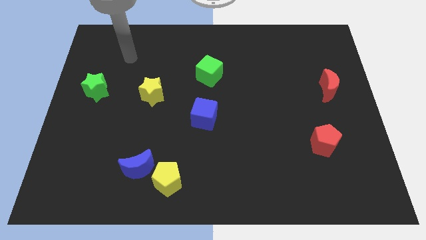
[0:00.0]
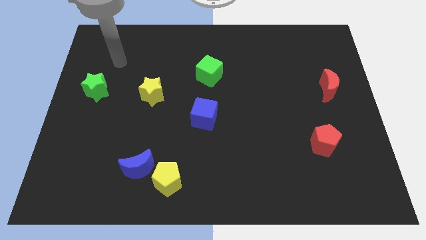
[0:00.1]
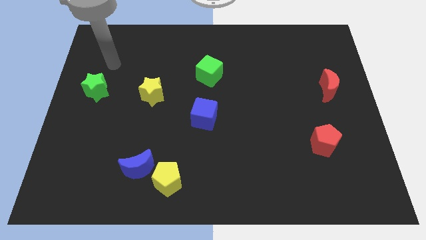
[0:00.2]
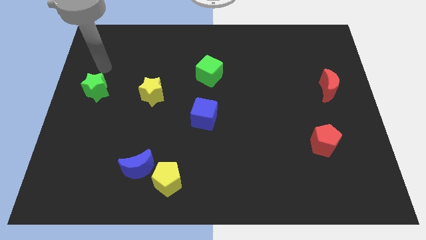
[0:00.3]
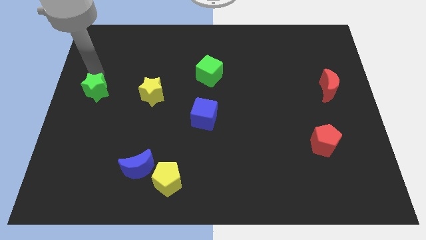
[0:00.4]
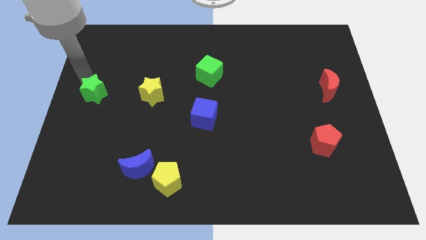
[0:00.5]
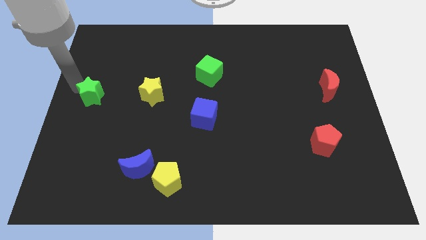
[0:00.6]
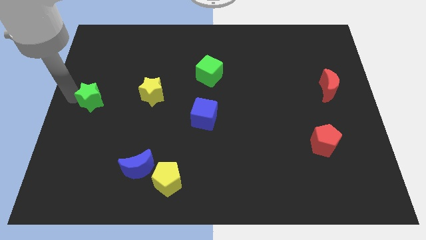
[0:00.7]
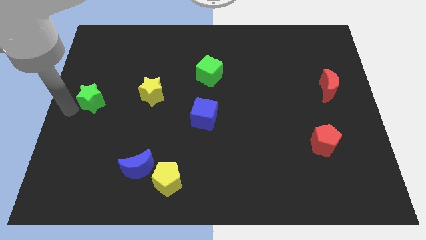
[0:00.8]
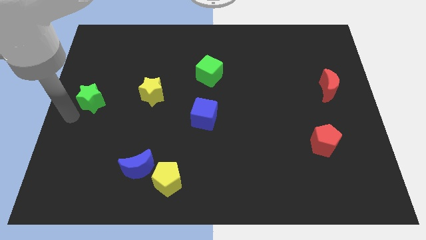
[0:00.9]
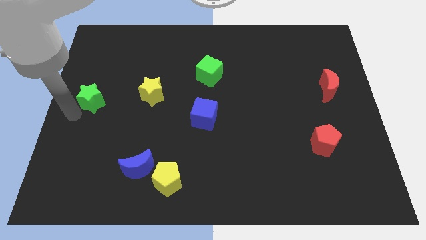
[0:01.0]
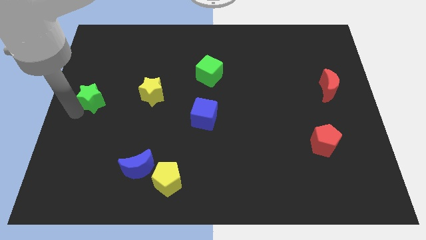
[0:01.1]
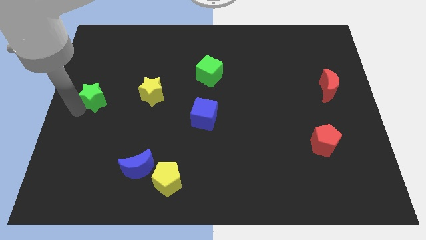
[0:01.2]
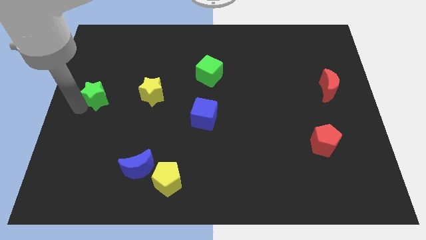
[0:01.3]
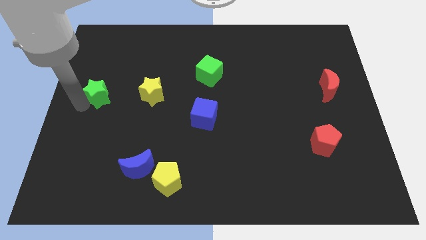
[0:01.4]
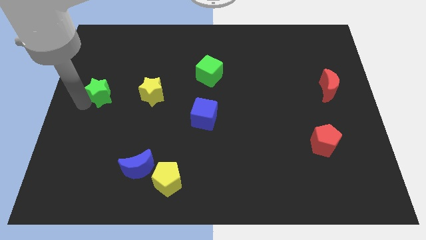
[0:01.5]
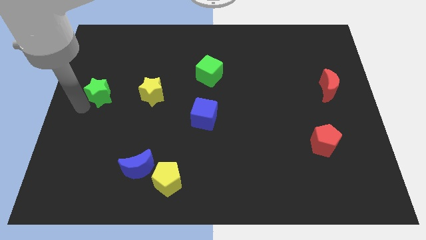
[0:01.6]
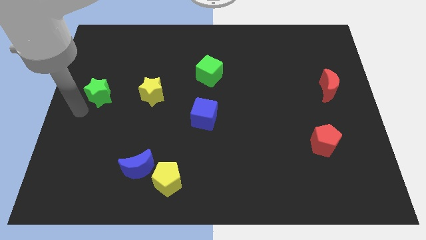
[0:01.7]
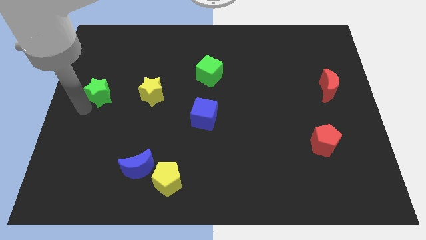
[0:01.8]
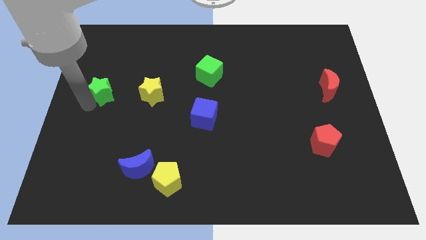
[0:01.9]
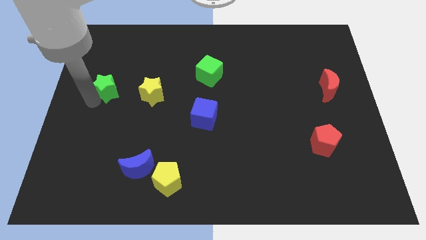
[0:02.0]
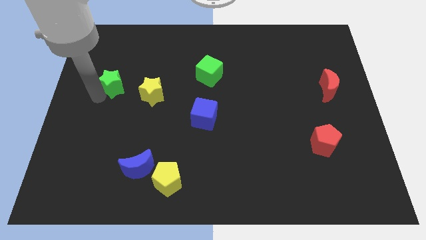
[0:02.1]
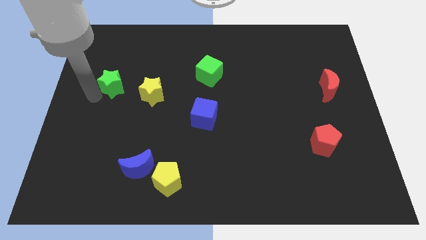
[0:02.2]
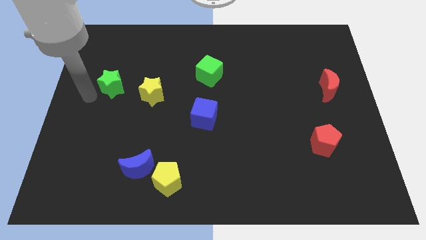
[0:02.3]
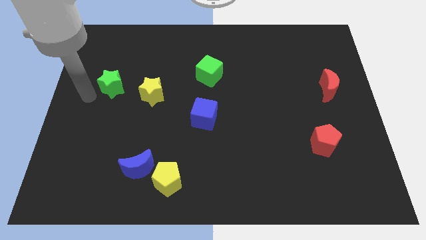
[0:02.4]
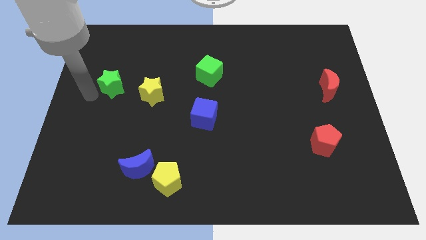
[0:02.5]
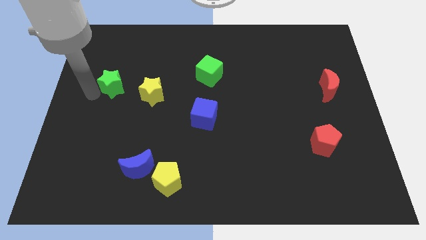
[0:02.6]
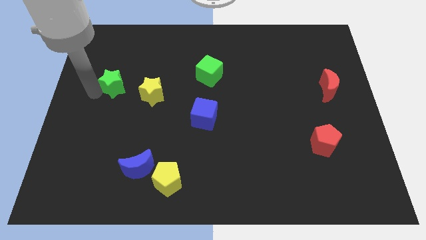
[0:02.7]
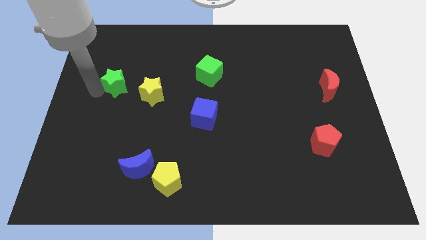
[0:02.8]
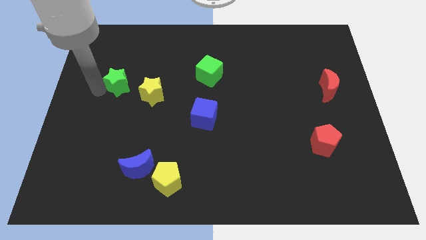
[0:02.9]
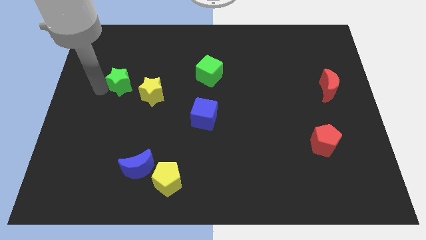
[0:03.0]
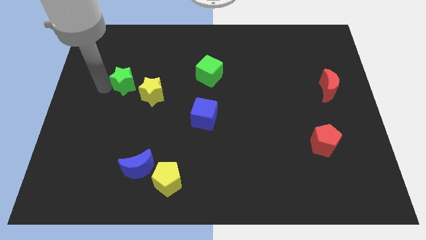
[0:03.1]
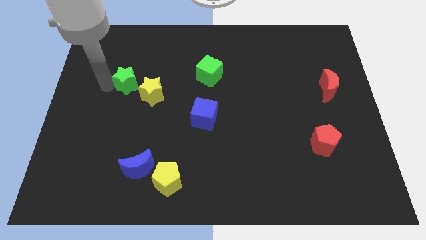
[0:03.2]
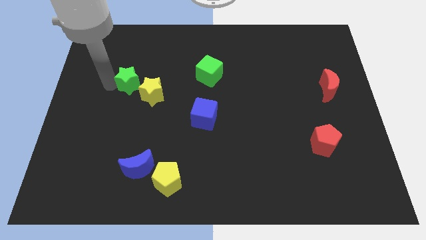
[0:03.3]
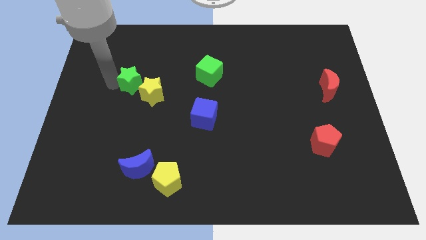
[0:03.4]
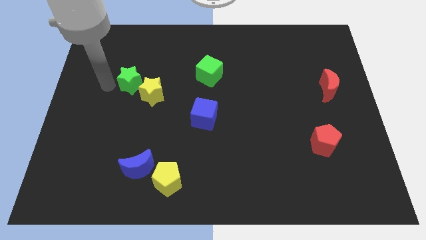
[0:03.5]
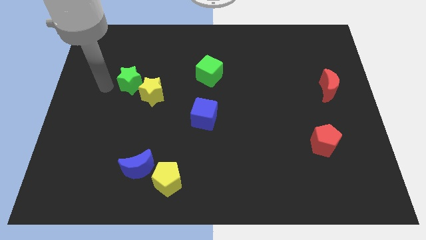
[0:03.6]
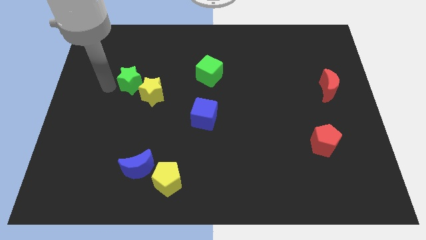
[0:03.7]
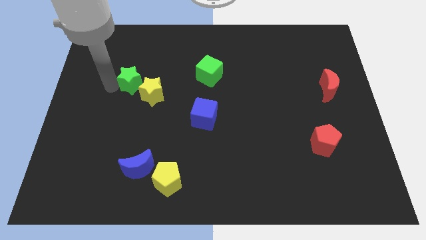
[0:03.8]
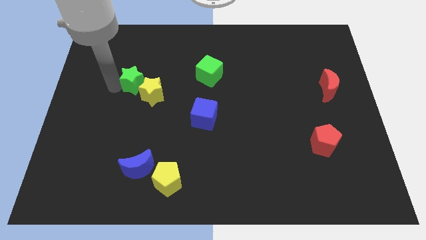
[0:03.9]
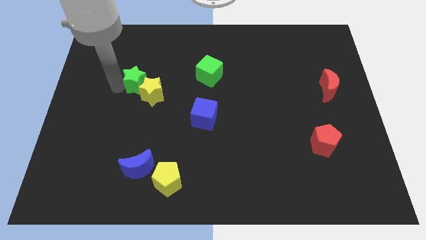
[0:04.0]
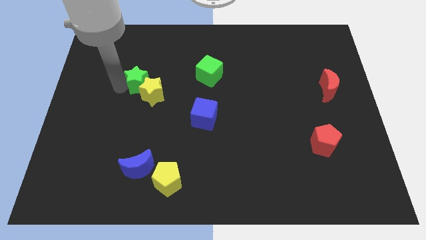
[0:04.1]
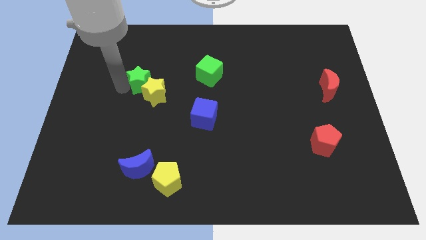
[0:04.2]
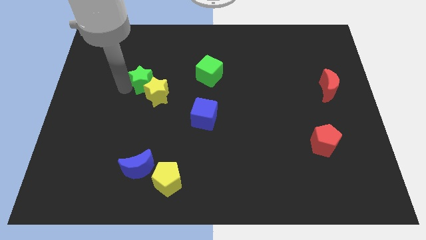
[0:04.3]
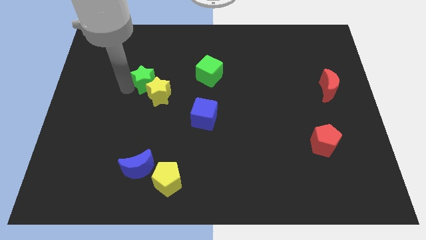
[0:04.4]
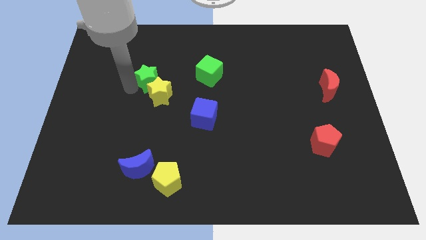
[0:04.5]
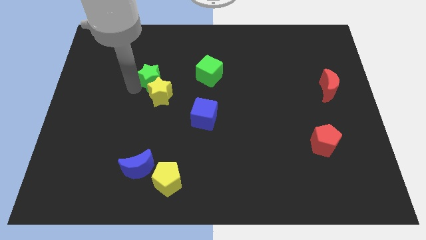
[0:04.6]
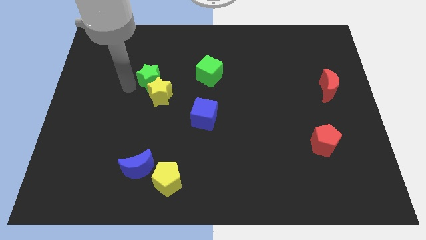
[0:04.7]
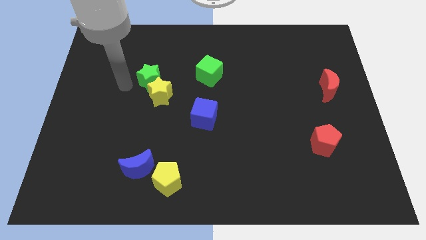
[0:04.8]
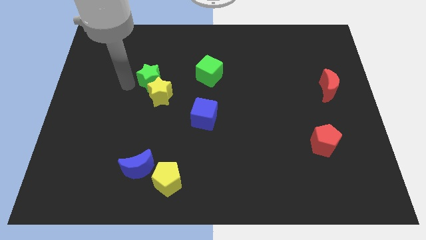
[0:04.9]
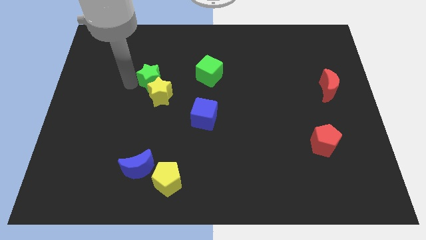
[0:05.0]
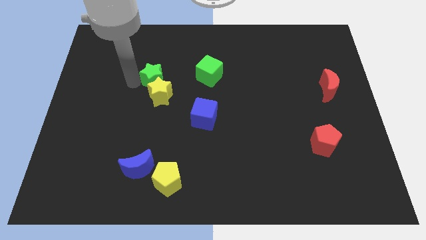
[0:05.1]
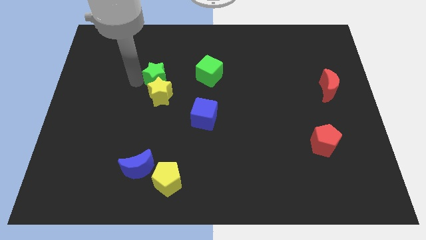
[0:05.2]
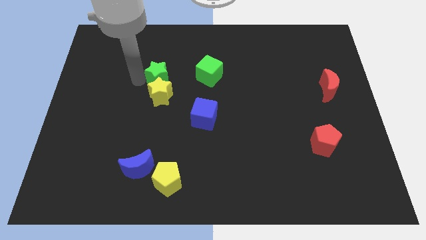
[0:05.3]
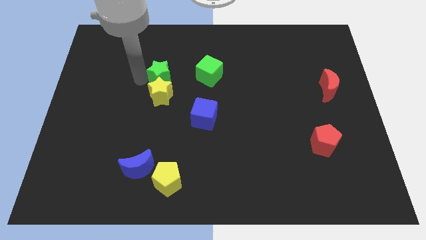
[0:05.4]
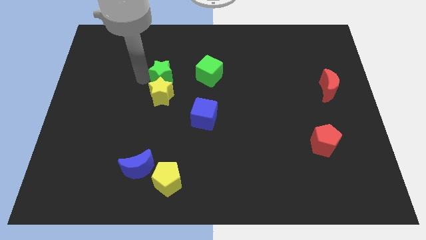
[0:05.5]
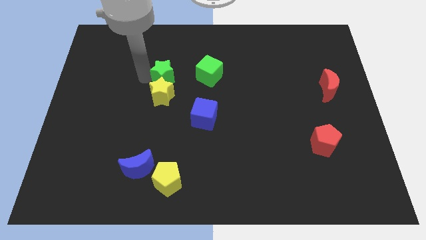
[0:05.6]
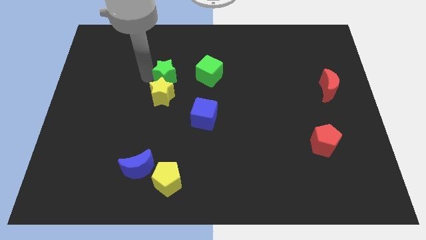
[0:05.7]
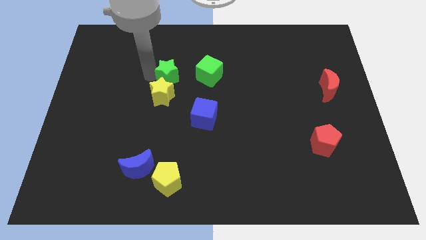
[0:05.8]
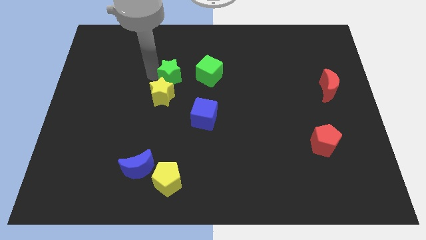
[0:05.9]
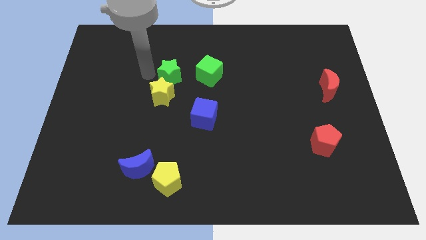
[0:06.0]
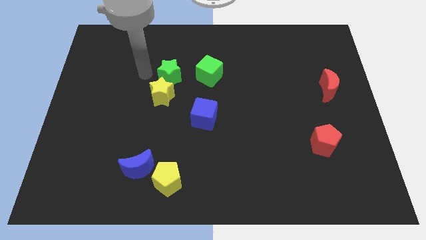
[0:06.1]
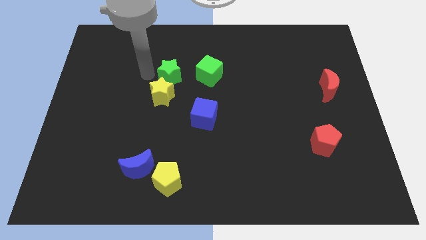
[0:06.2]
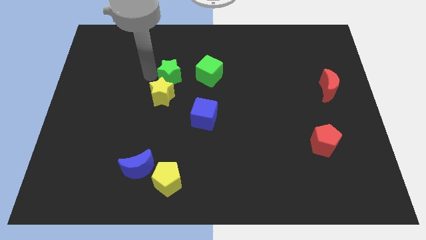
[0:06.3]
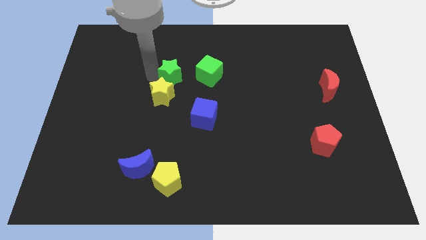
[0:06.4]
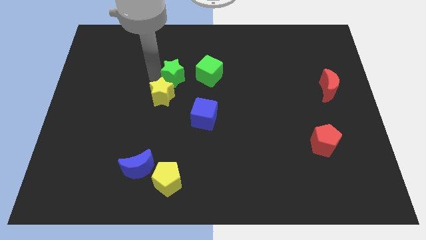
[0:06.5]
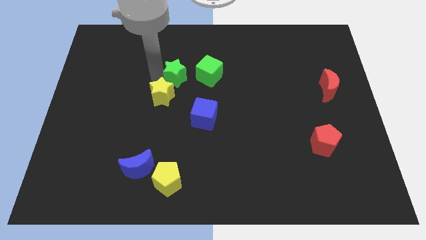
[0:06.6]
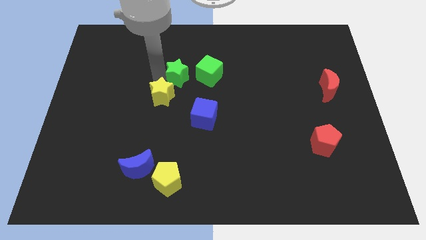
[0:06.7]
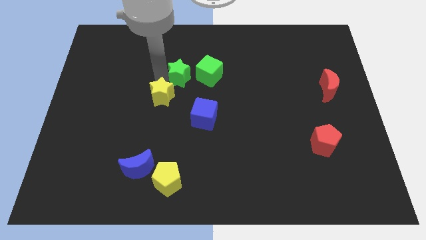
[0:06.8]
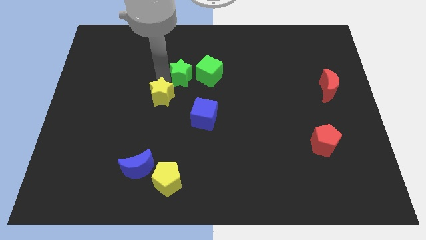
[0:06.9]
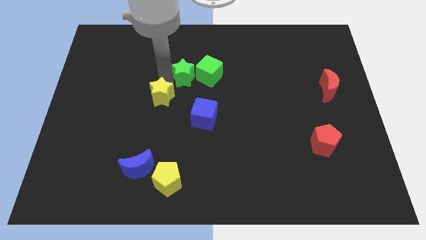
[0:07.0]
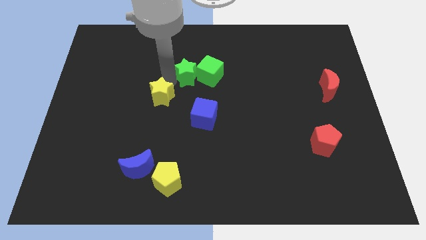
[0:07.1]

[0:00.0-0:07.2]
move the green star towards the green cube
